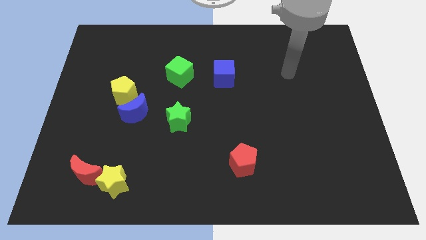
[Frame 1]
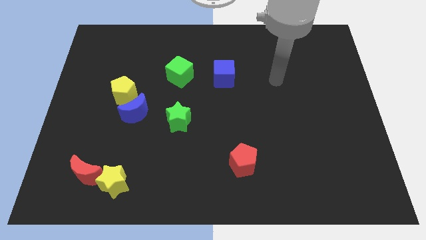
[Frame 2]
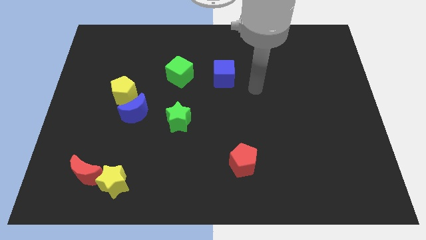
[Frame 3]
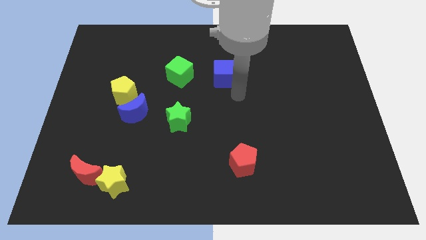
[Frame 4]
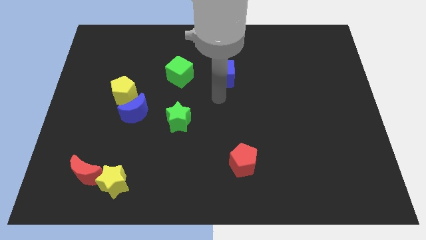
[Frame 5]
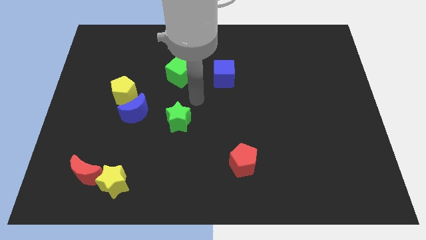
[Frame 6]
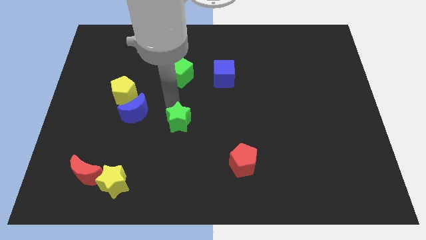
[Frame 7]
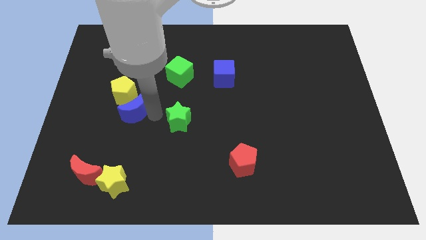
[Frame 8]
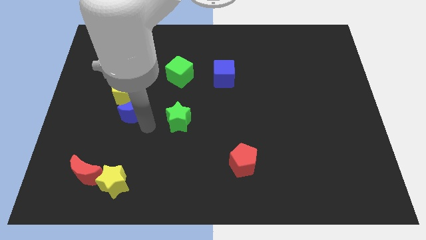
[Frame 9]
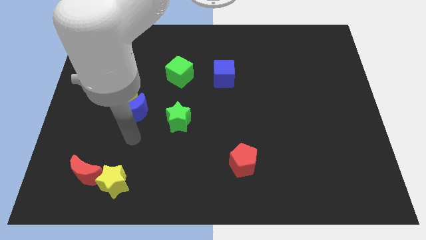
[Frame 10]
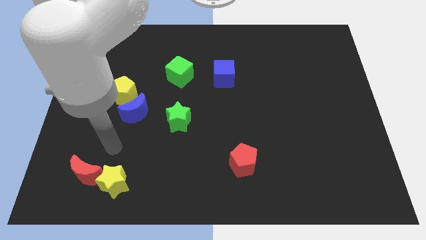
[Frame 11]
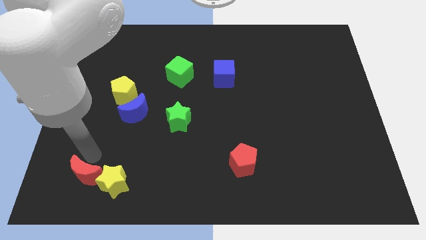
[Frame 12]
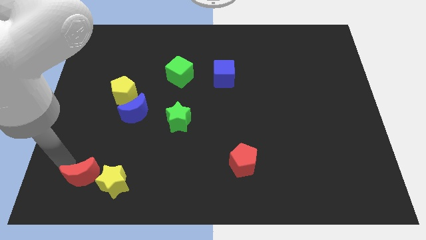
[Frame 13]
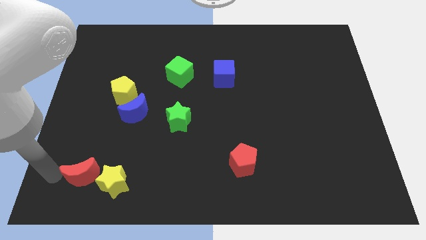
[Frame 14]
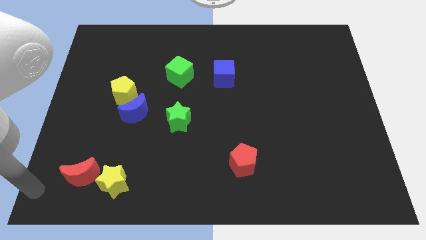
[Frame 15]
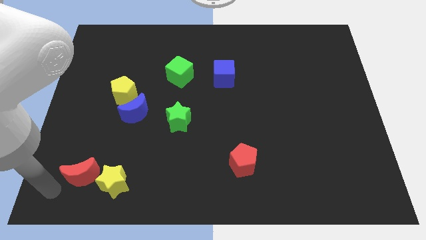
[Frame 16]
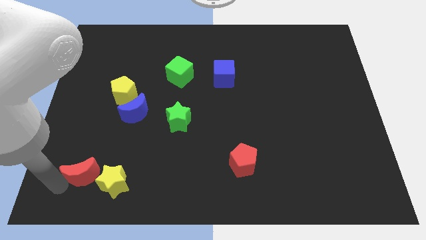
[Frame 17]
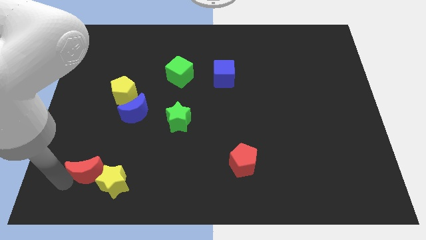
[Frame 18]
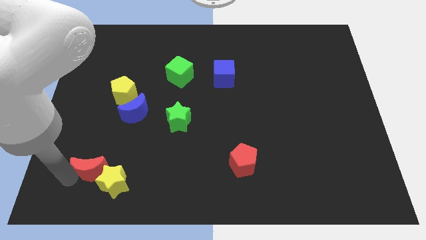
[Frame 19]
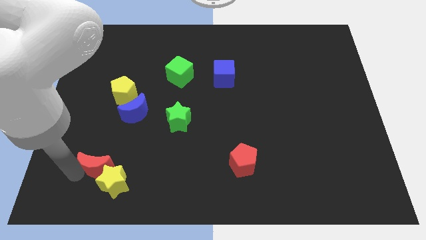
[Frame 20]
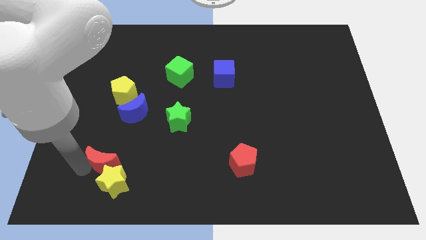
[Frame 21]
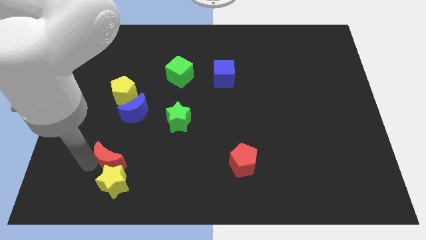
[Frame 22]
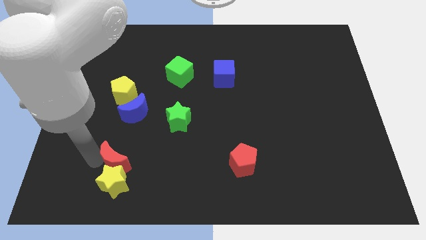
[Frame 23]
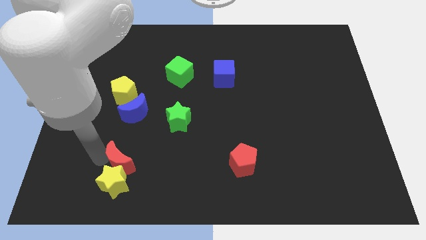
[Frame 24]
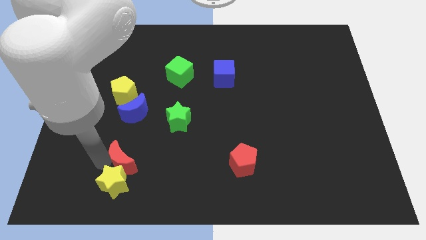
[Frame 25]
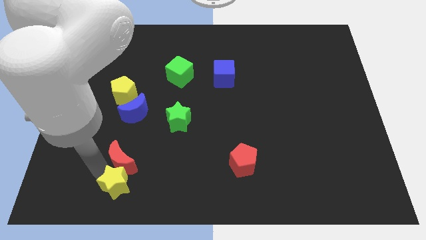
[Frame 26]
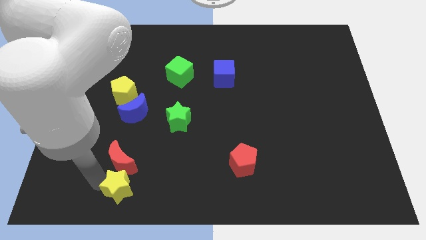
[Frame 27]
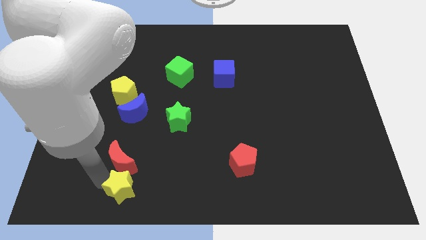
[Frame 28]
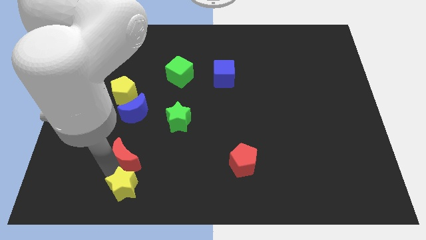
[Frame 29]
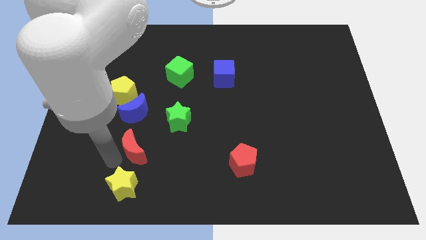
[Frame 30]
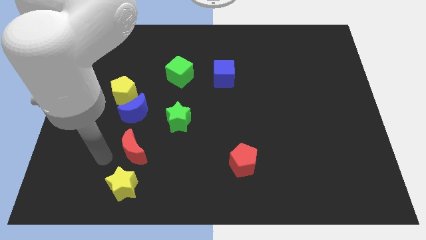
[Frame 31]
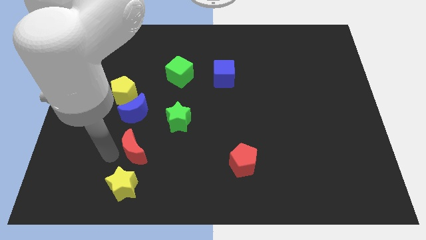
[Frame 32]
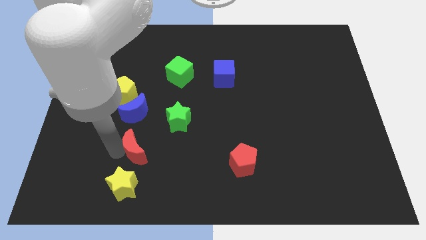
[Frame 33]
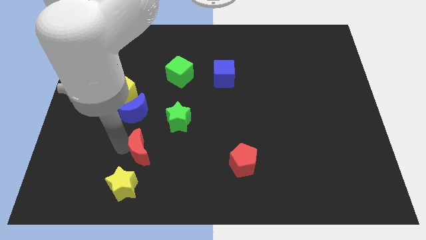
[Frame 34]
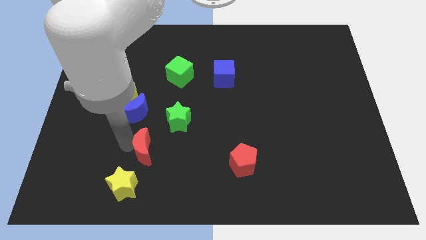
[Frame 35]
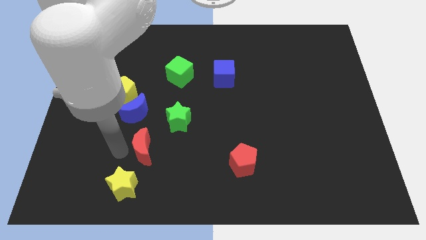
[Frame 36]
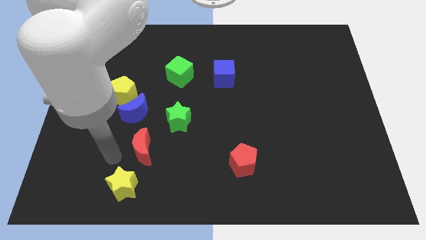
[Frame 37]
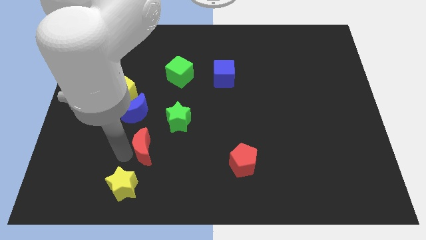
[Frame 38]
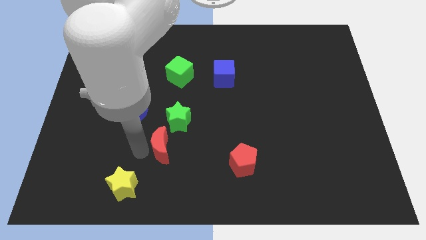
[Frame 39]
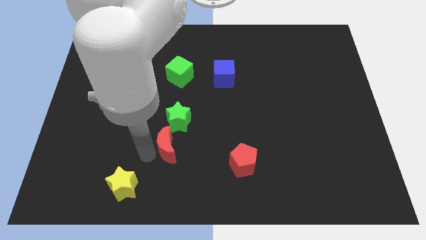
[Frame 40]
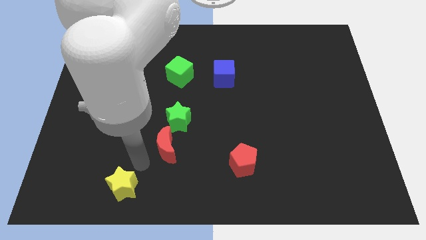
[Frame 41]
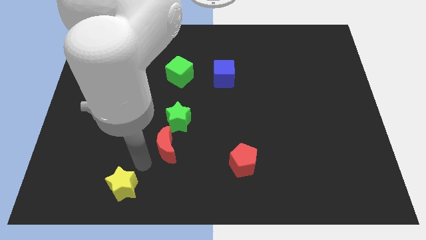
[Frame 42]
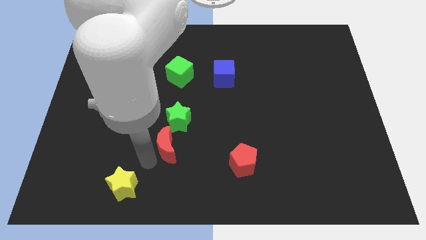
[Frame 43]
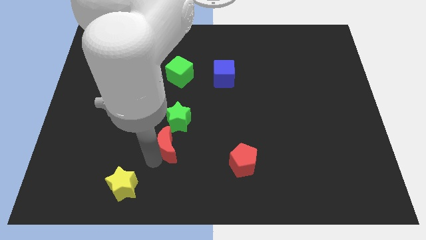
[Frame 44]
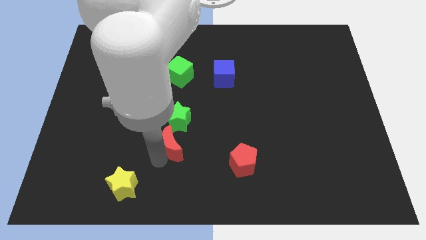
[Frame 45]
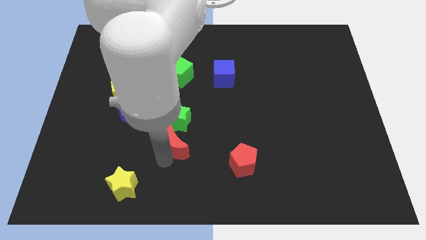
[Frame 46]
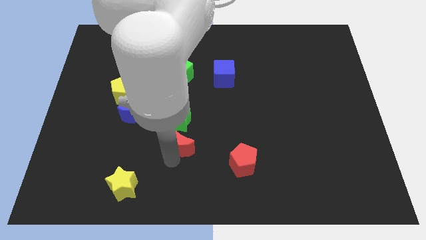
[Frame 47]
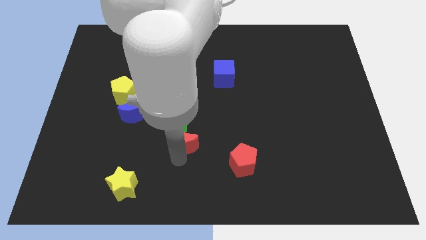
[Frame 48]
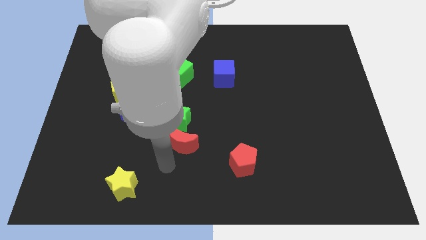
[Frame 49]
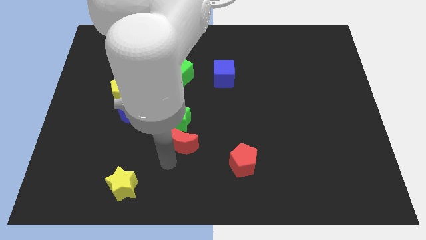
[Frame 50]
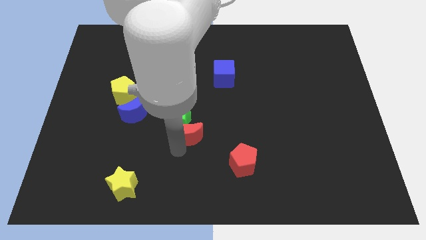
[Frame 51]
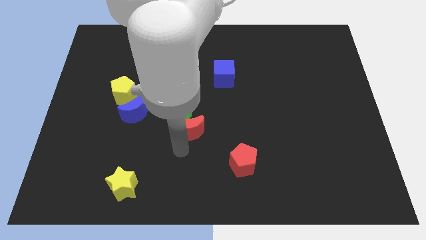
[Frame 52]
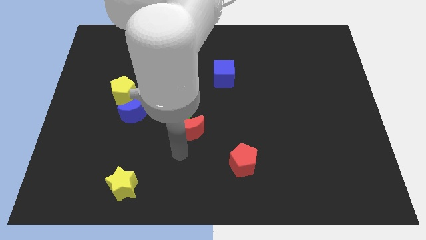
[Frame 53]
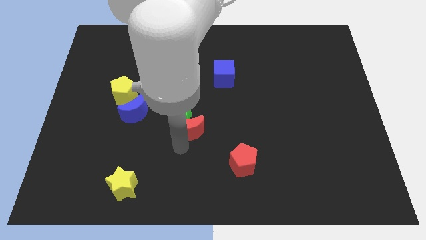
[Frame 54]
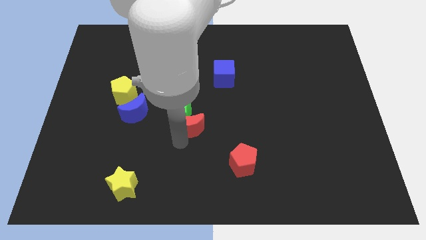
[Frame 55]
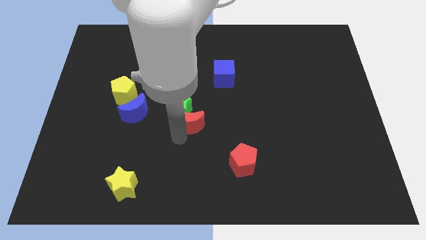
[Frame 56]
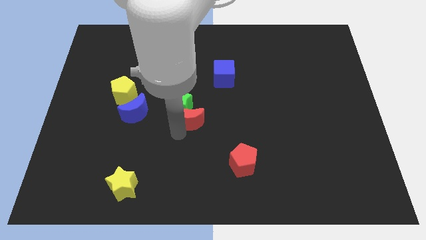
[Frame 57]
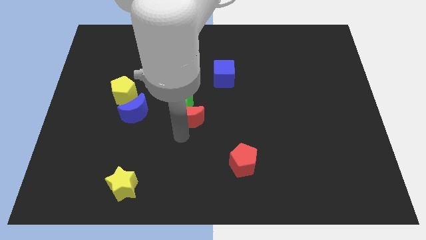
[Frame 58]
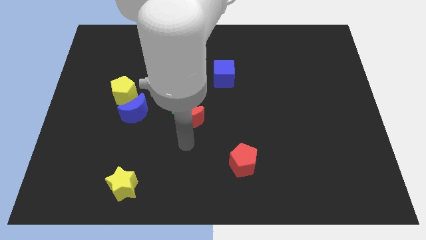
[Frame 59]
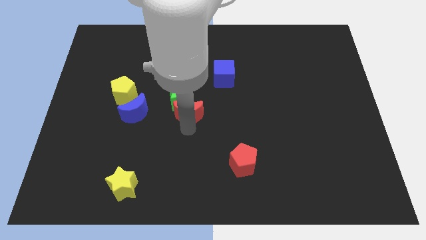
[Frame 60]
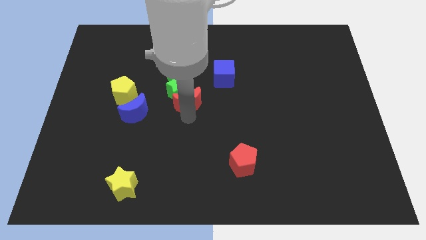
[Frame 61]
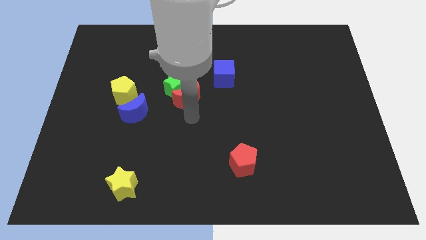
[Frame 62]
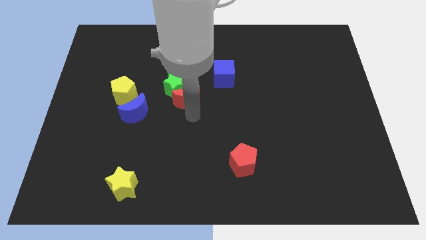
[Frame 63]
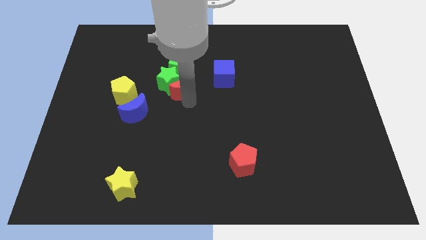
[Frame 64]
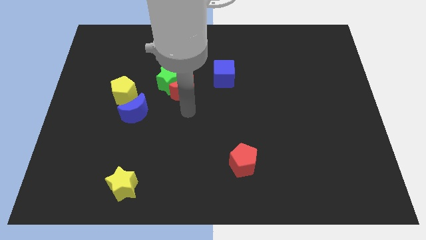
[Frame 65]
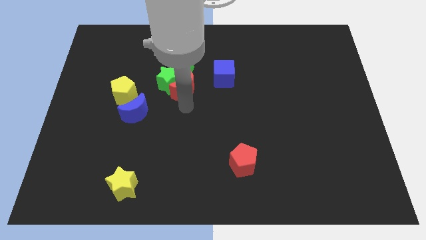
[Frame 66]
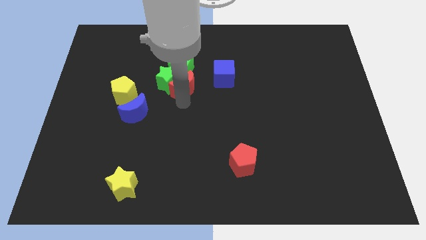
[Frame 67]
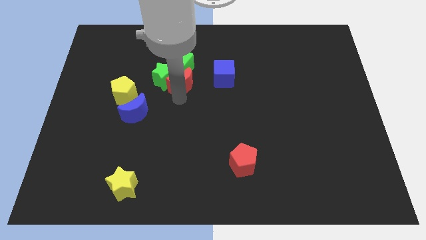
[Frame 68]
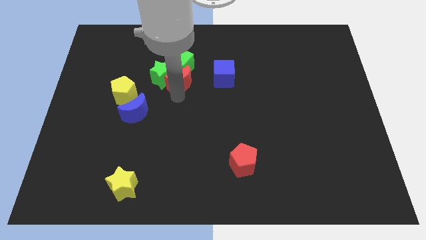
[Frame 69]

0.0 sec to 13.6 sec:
put the red moon close to the green cube
